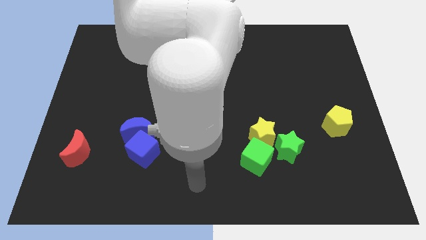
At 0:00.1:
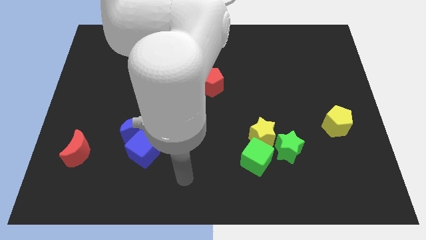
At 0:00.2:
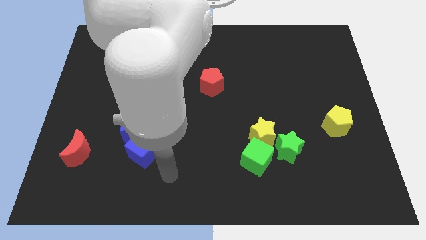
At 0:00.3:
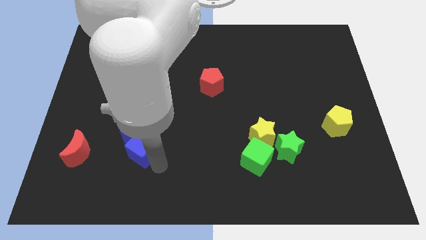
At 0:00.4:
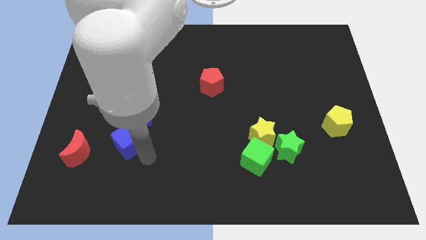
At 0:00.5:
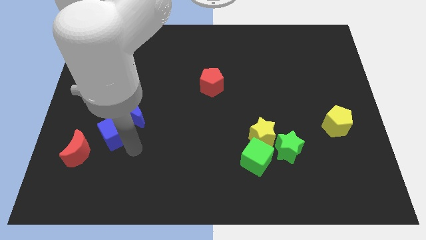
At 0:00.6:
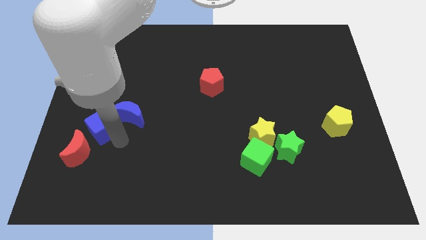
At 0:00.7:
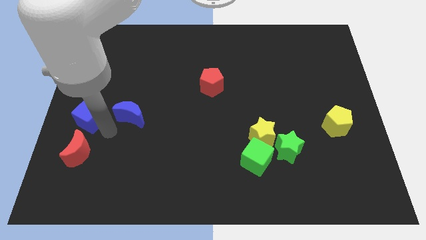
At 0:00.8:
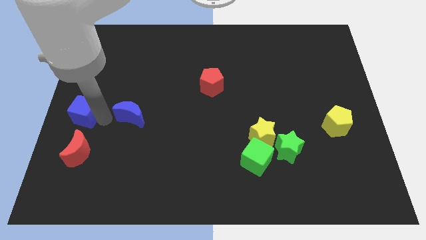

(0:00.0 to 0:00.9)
separate the blue moon from the blue cube

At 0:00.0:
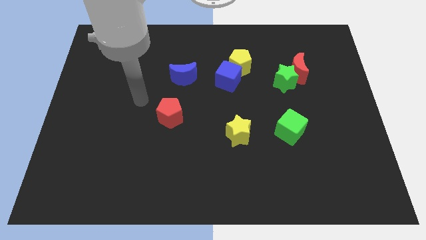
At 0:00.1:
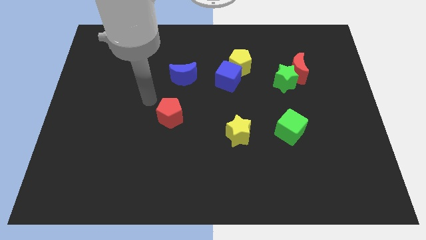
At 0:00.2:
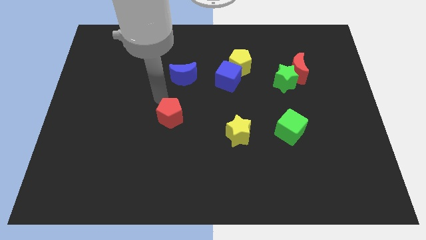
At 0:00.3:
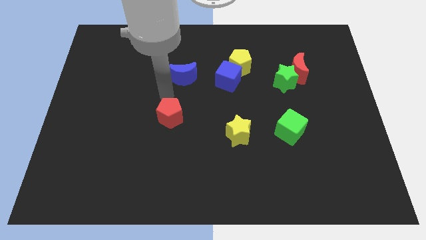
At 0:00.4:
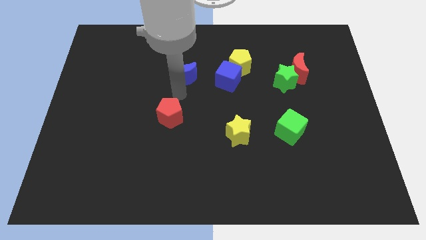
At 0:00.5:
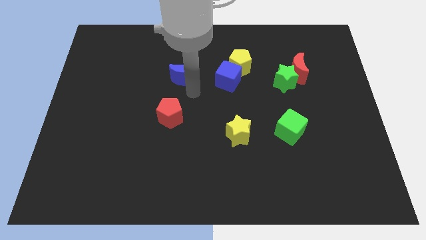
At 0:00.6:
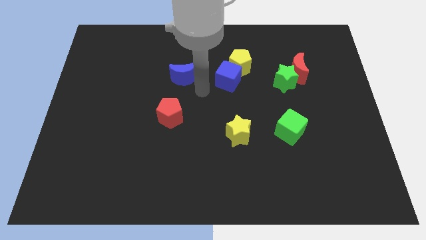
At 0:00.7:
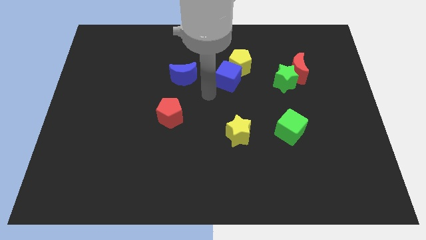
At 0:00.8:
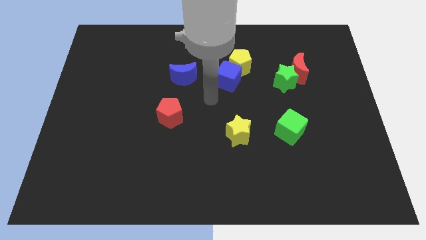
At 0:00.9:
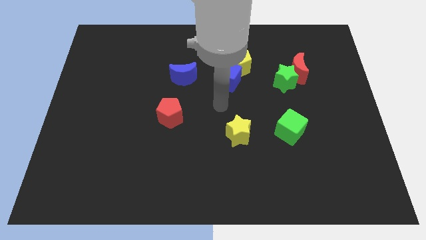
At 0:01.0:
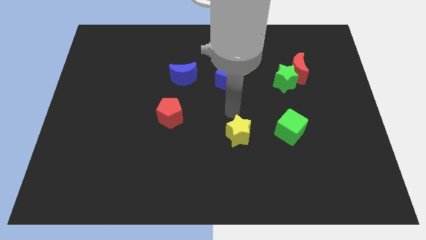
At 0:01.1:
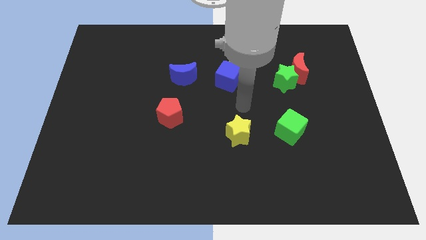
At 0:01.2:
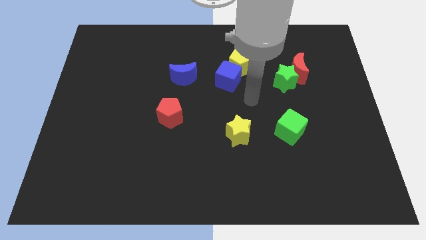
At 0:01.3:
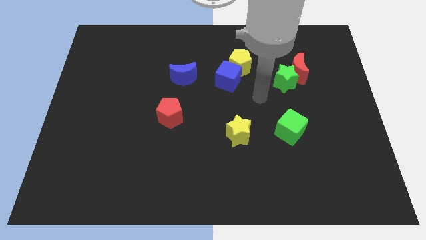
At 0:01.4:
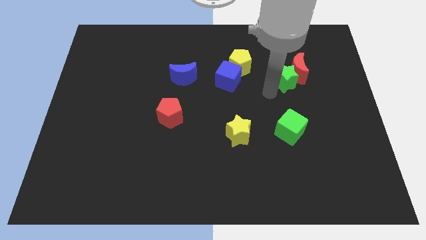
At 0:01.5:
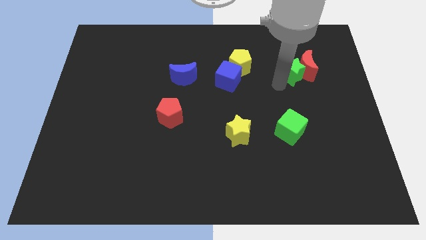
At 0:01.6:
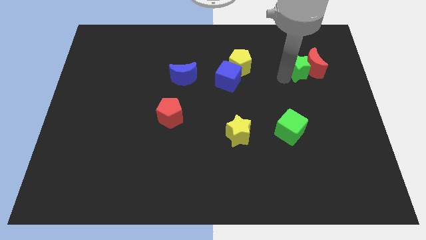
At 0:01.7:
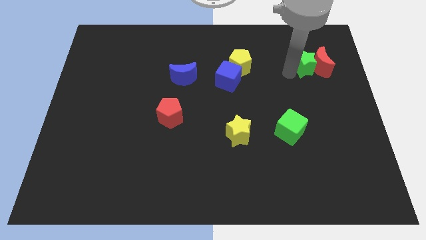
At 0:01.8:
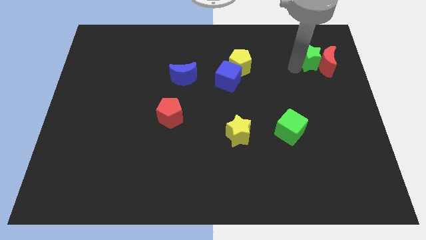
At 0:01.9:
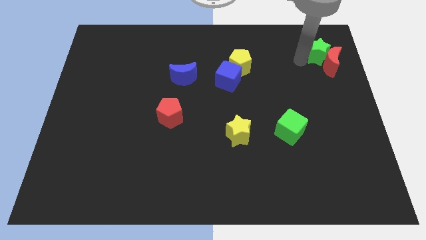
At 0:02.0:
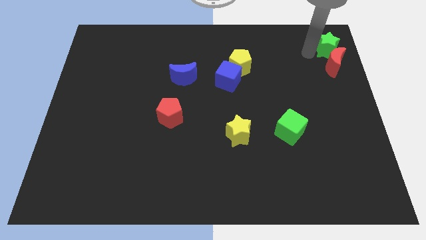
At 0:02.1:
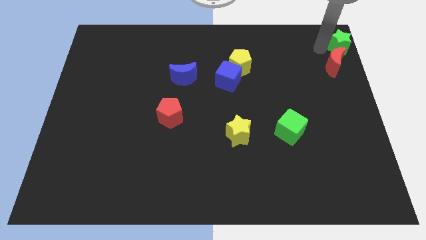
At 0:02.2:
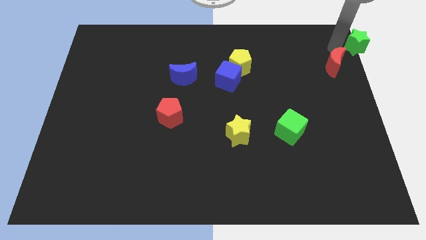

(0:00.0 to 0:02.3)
pull the red moon apart from the green star

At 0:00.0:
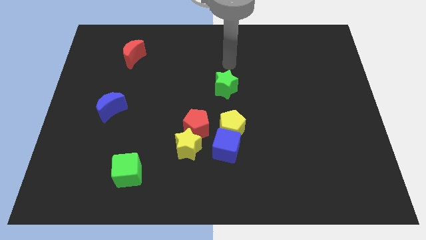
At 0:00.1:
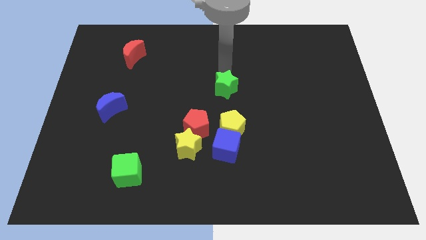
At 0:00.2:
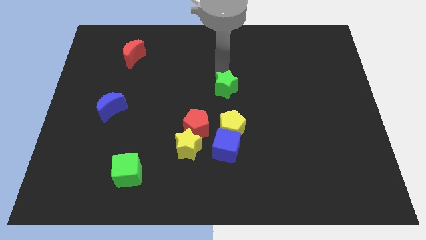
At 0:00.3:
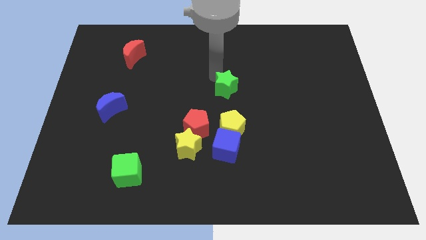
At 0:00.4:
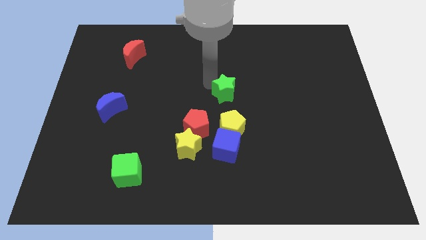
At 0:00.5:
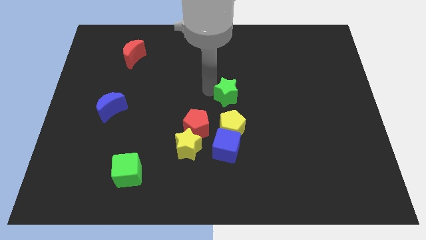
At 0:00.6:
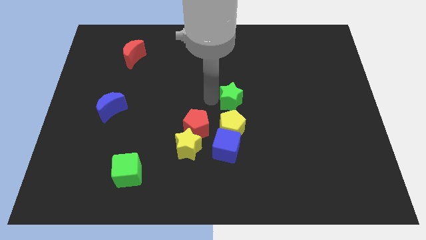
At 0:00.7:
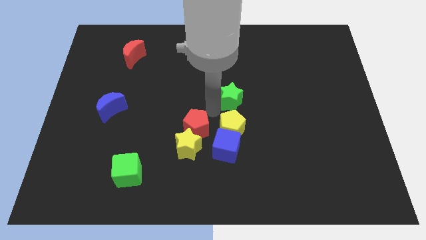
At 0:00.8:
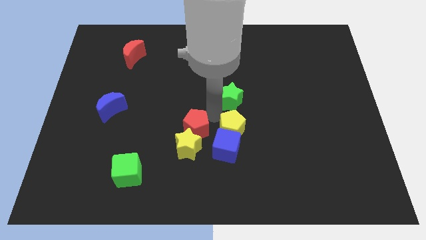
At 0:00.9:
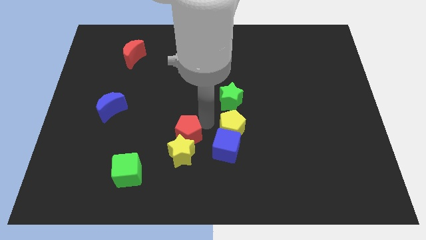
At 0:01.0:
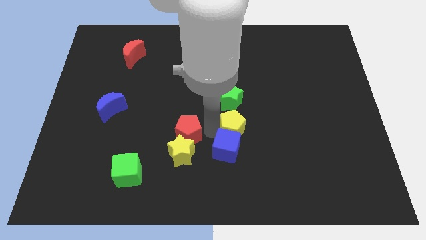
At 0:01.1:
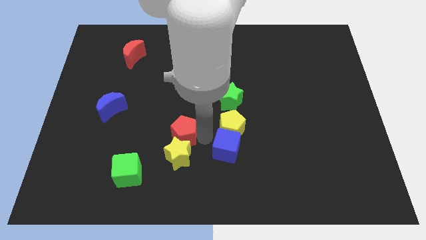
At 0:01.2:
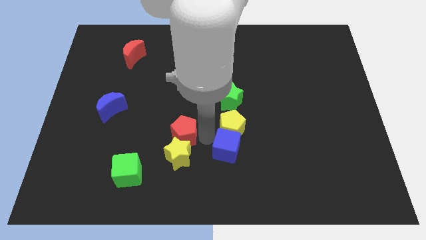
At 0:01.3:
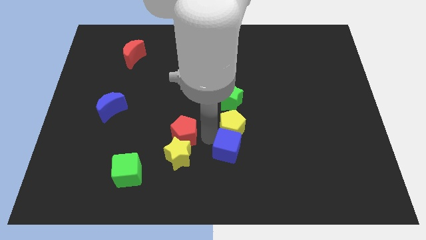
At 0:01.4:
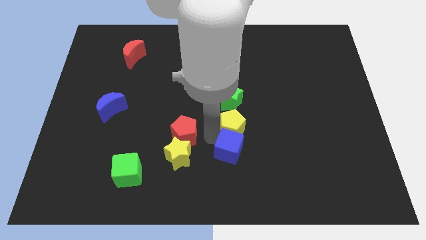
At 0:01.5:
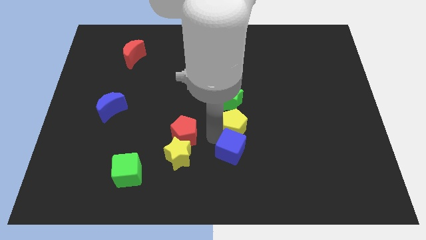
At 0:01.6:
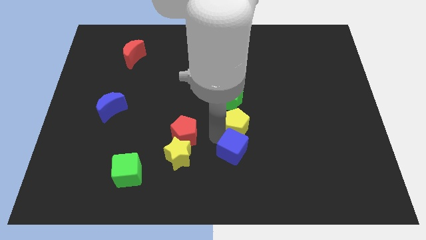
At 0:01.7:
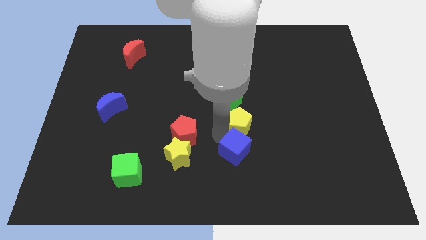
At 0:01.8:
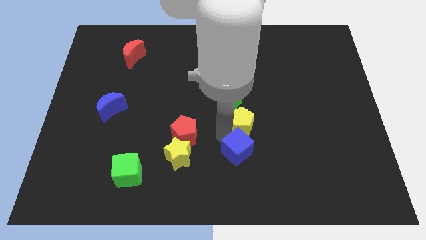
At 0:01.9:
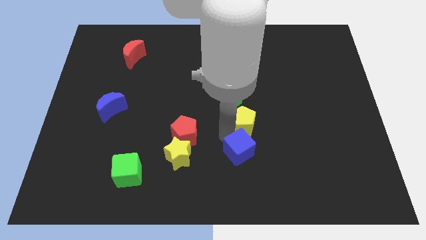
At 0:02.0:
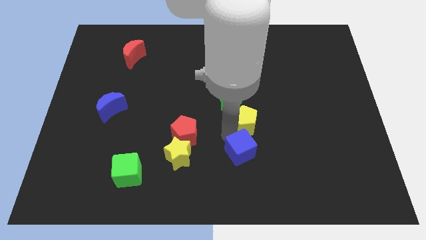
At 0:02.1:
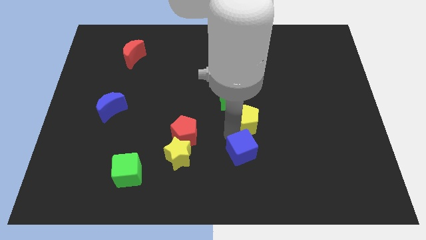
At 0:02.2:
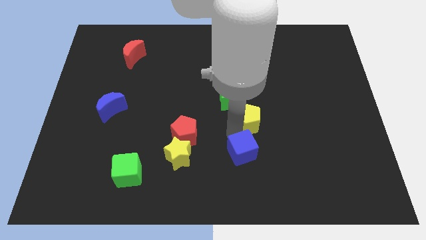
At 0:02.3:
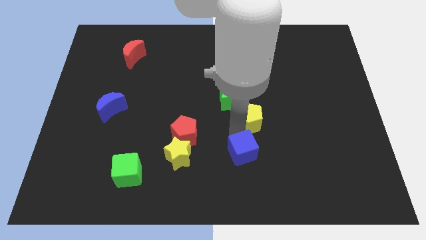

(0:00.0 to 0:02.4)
separate the yellow pentagon from the blue cube and red pentagon

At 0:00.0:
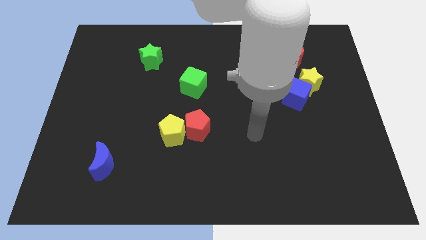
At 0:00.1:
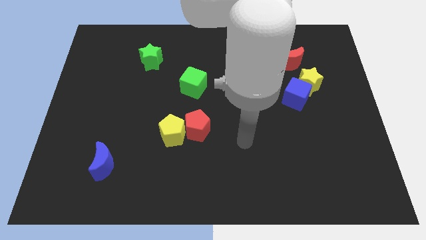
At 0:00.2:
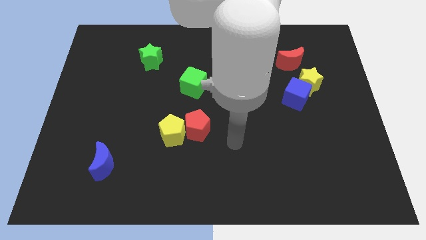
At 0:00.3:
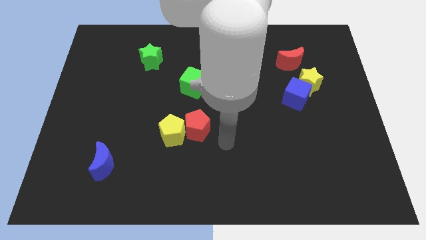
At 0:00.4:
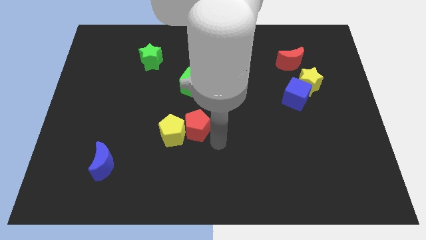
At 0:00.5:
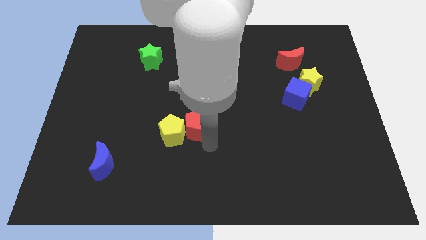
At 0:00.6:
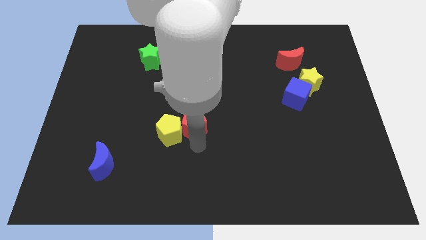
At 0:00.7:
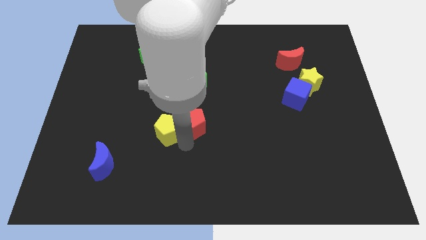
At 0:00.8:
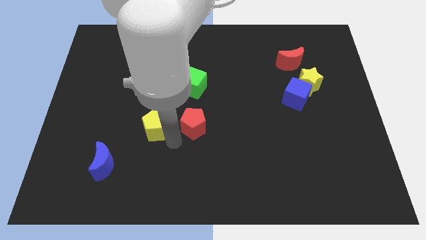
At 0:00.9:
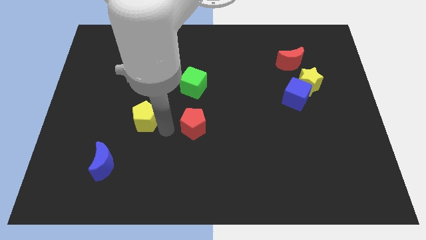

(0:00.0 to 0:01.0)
pull the red pentagon apart from the yellow pentagon

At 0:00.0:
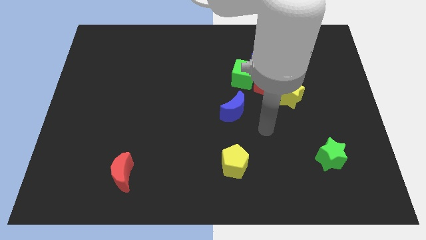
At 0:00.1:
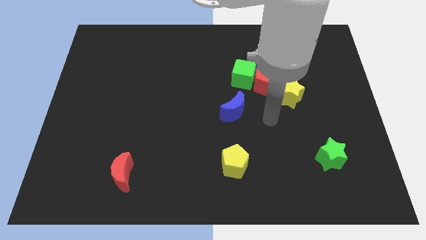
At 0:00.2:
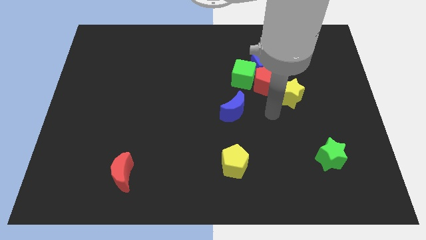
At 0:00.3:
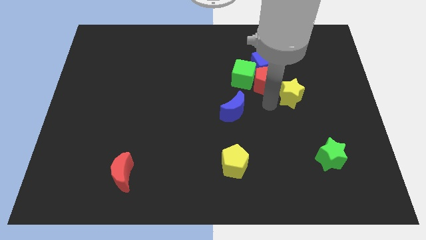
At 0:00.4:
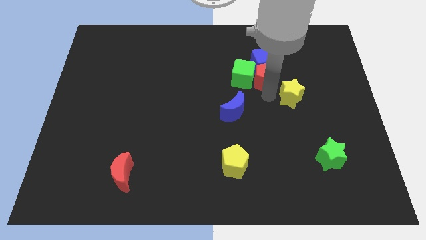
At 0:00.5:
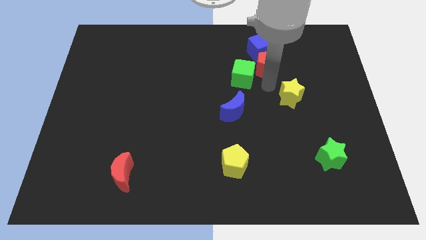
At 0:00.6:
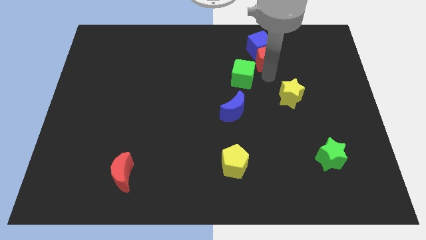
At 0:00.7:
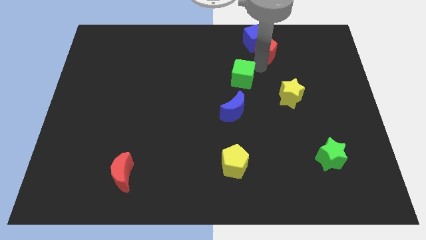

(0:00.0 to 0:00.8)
move the green cube away from the red pentagon and blue cube

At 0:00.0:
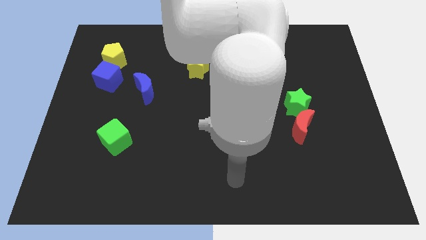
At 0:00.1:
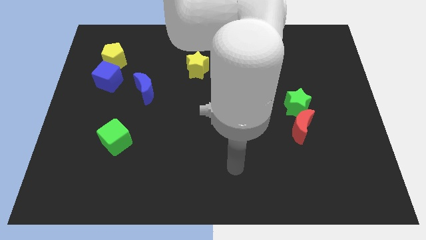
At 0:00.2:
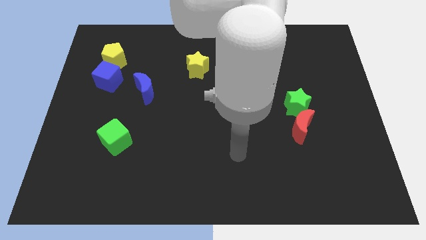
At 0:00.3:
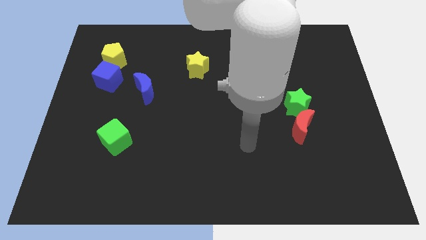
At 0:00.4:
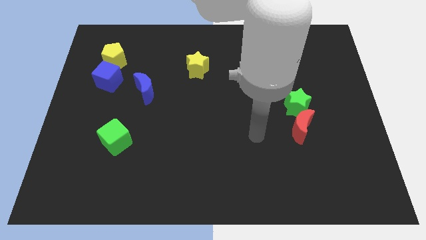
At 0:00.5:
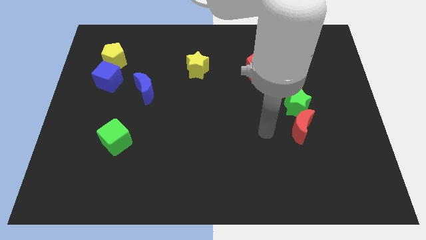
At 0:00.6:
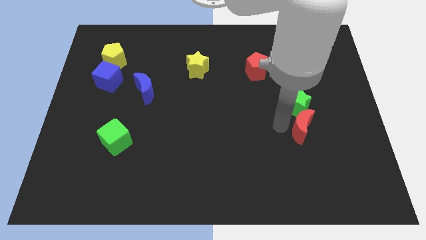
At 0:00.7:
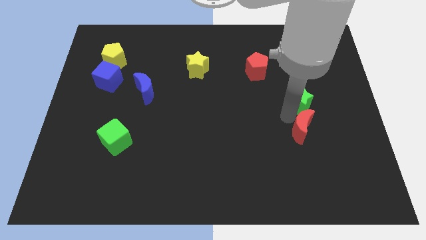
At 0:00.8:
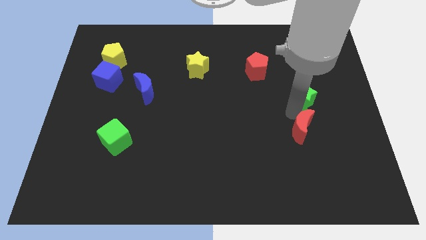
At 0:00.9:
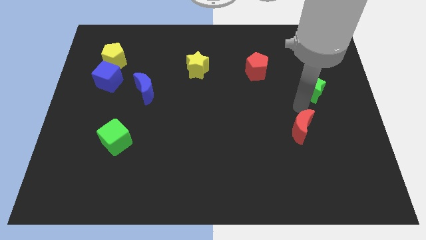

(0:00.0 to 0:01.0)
move the red moon away from the green star

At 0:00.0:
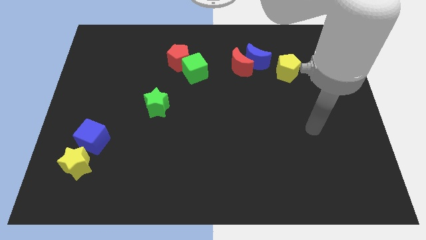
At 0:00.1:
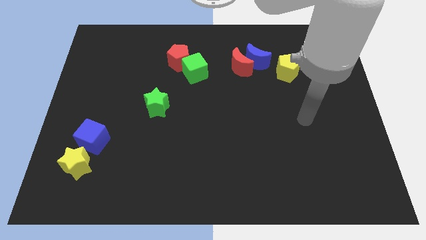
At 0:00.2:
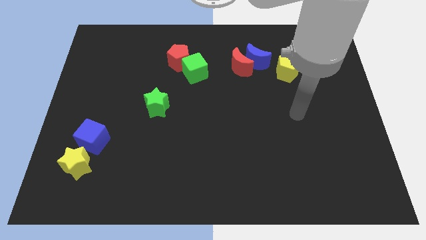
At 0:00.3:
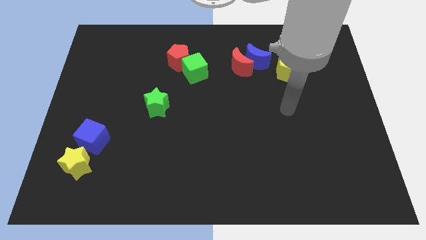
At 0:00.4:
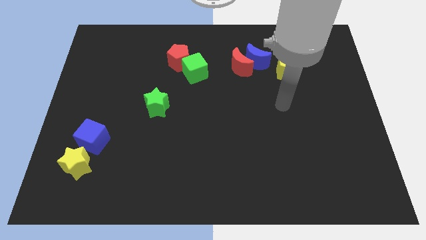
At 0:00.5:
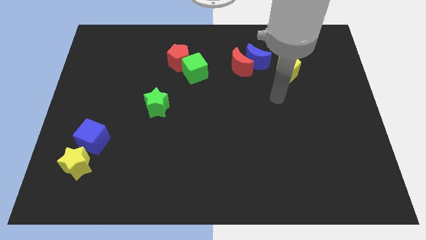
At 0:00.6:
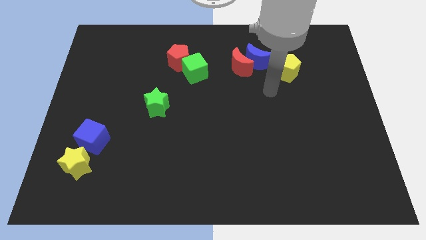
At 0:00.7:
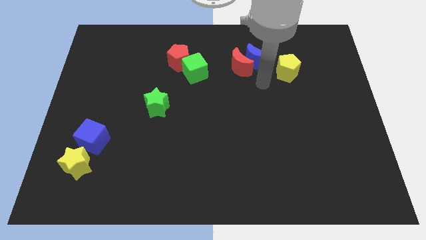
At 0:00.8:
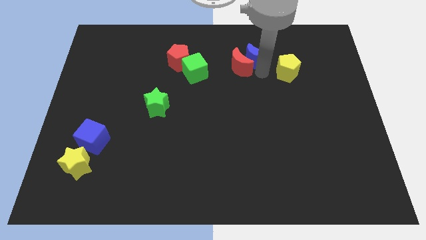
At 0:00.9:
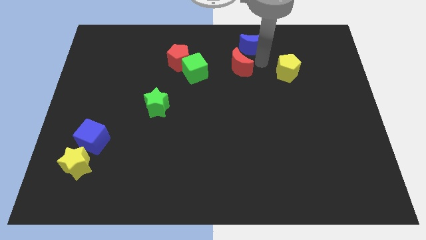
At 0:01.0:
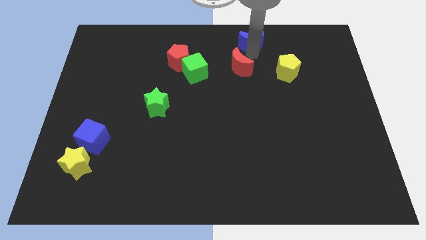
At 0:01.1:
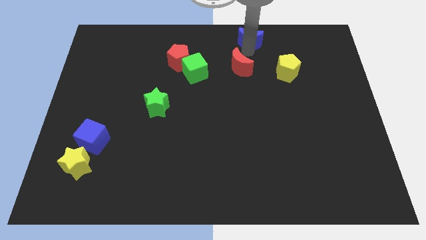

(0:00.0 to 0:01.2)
pull the red moon apart from the blue moon
